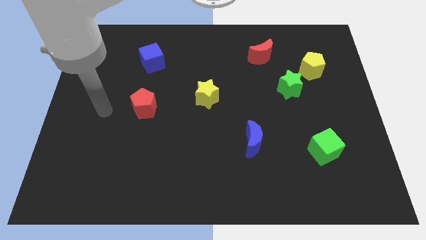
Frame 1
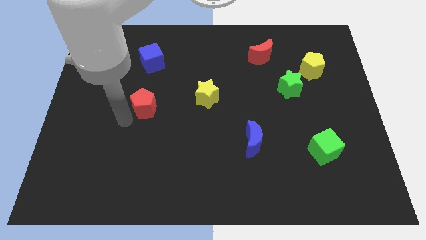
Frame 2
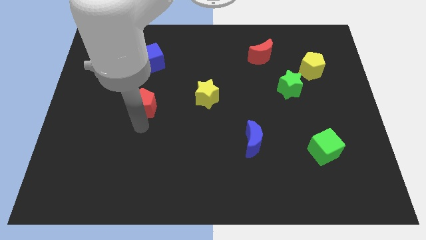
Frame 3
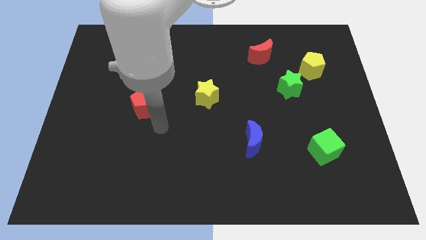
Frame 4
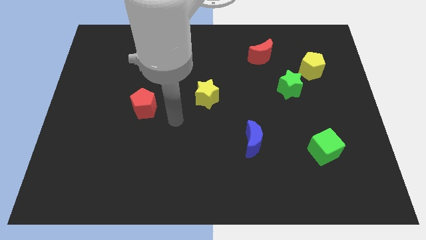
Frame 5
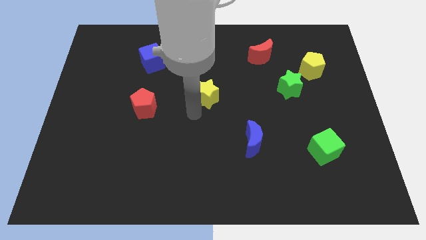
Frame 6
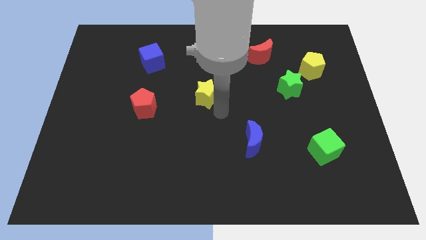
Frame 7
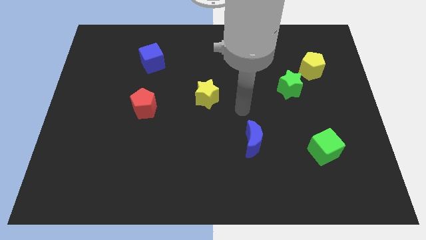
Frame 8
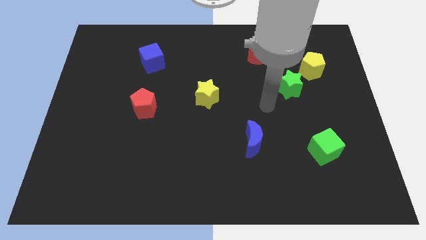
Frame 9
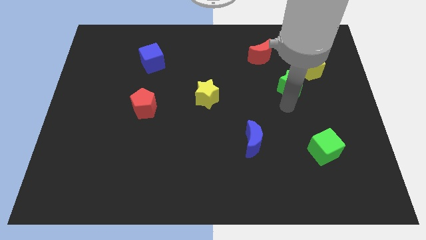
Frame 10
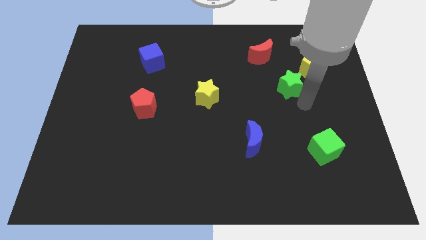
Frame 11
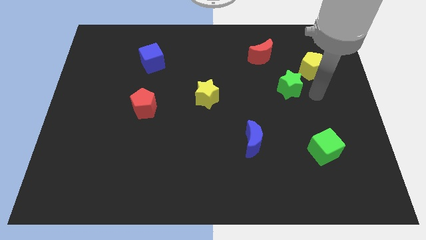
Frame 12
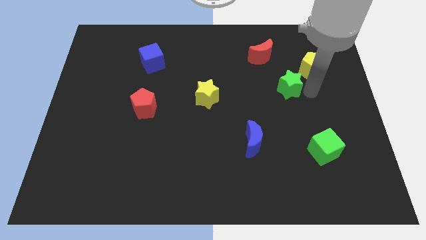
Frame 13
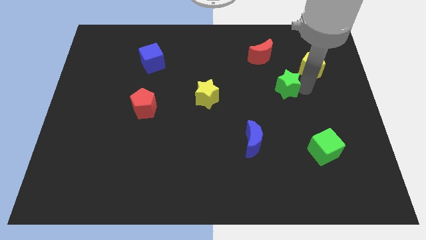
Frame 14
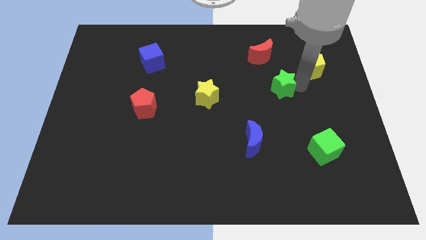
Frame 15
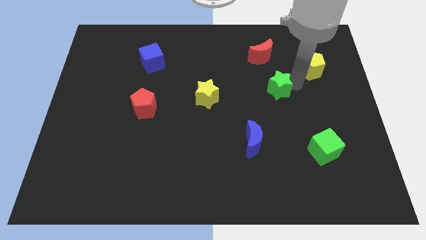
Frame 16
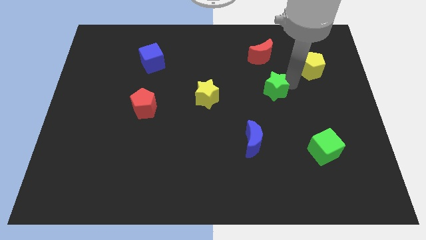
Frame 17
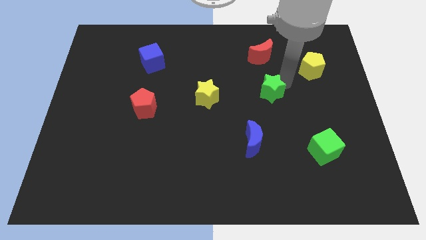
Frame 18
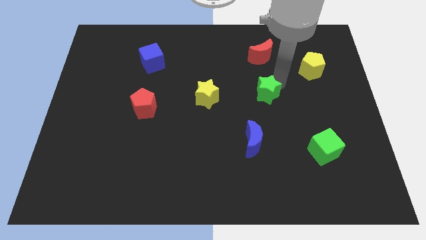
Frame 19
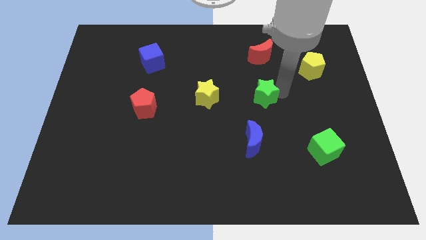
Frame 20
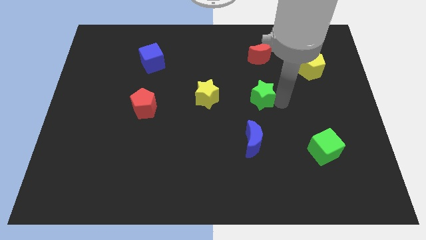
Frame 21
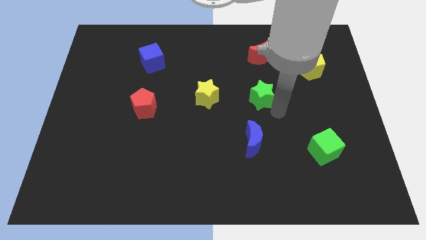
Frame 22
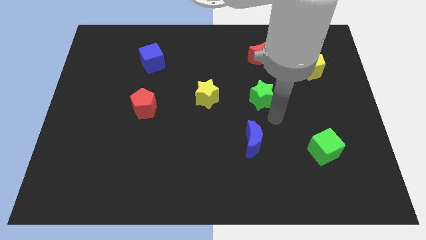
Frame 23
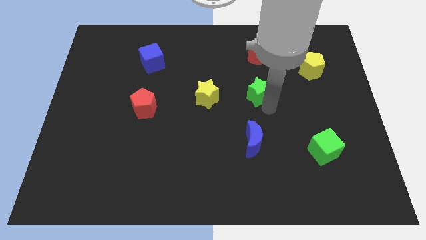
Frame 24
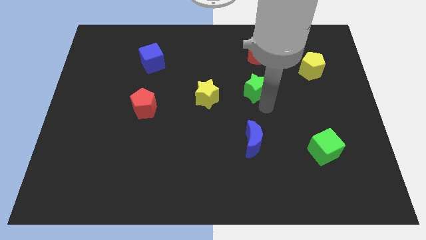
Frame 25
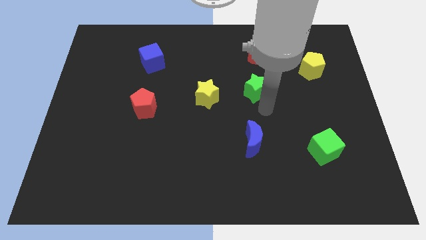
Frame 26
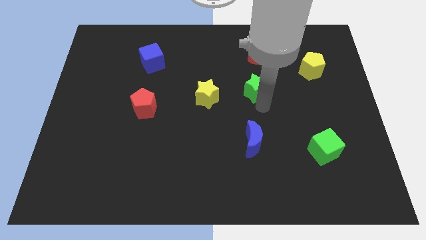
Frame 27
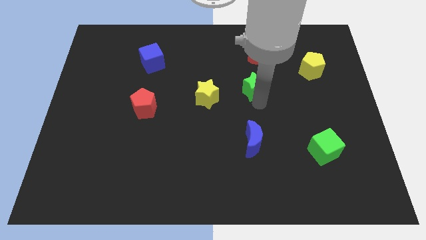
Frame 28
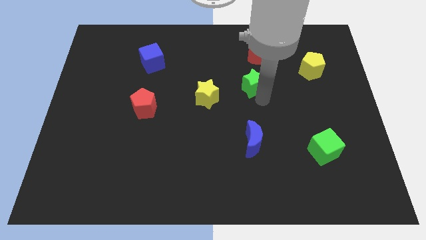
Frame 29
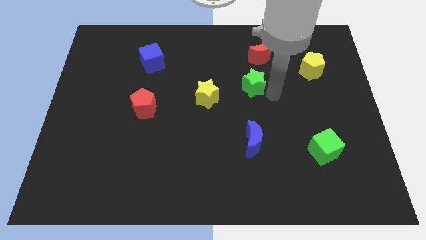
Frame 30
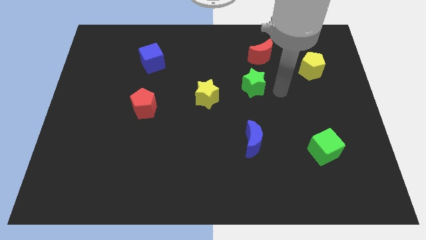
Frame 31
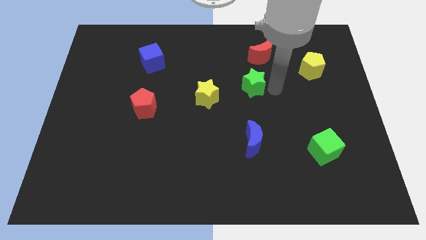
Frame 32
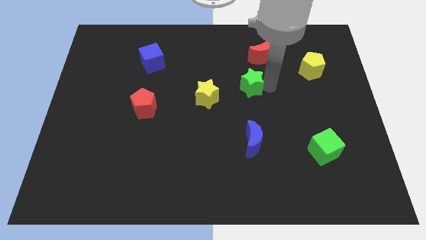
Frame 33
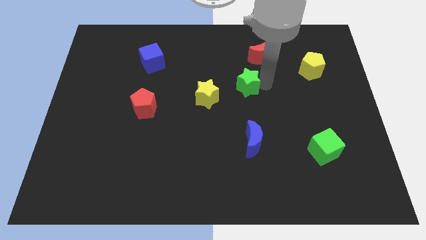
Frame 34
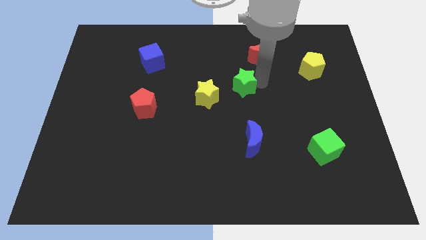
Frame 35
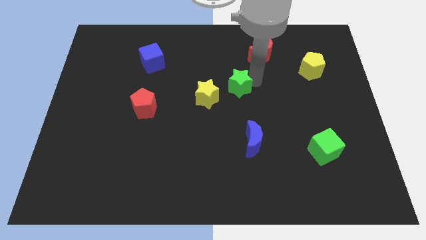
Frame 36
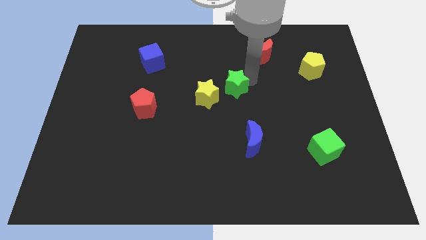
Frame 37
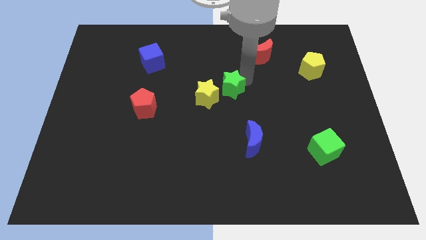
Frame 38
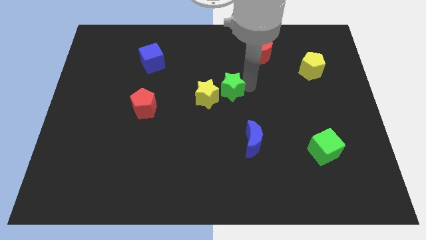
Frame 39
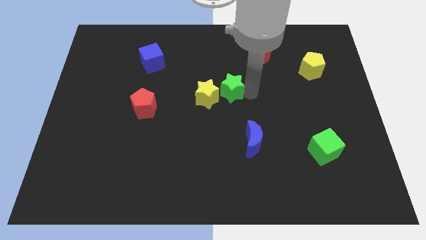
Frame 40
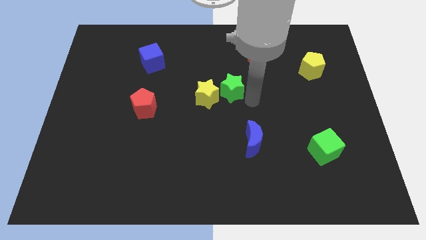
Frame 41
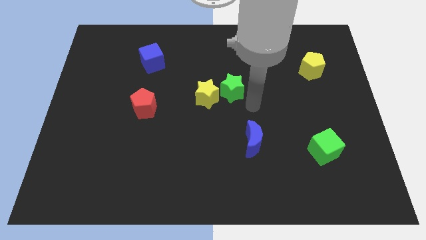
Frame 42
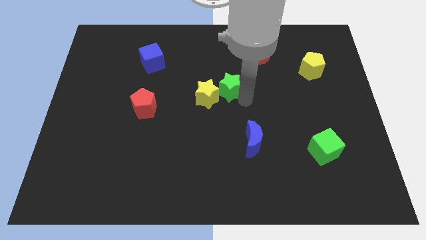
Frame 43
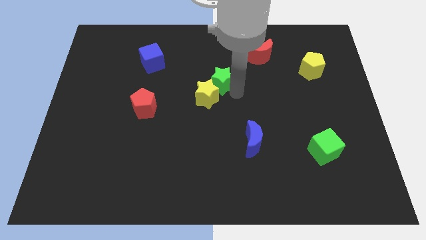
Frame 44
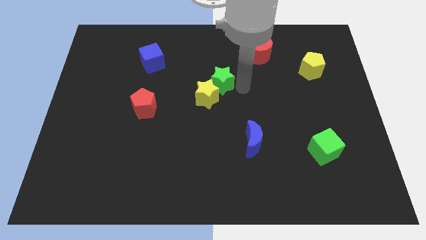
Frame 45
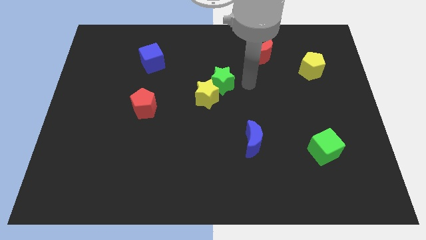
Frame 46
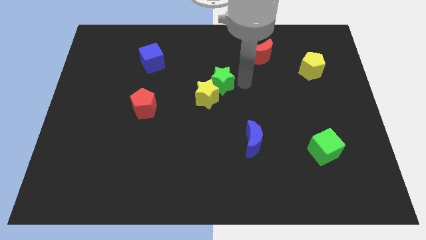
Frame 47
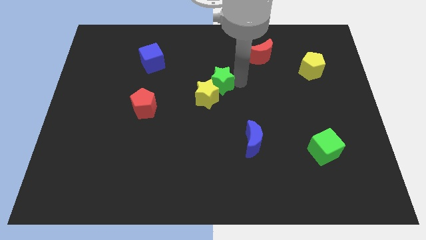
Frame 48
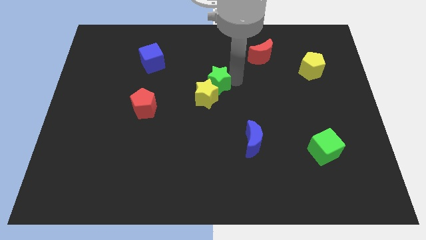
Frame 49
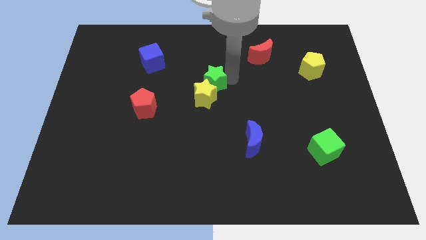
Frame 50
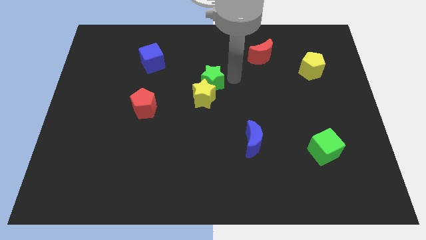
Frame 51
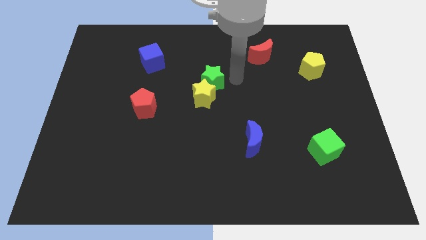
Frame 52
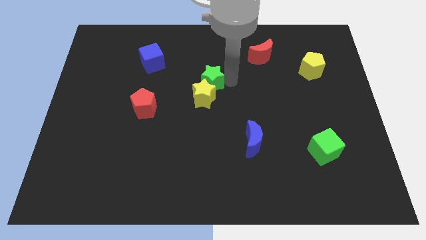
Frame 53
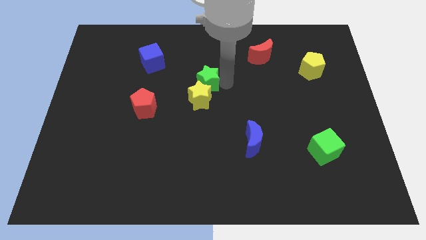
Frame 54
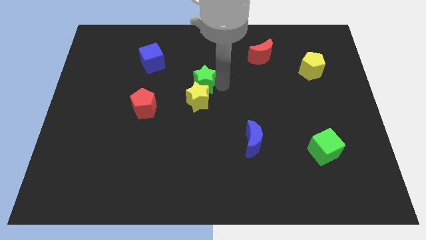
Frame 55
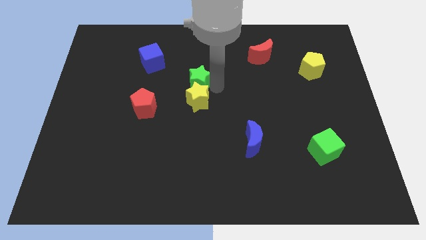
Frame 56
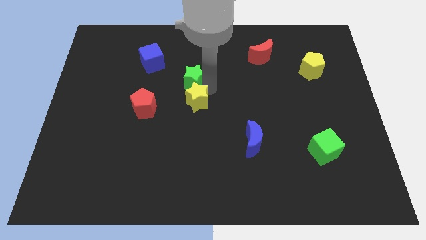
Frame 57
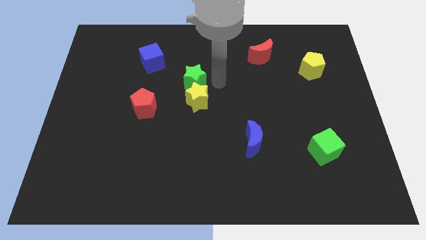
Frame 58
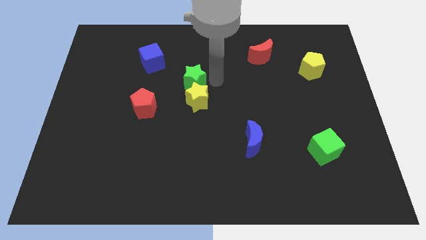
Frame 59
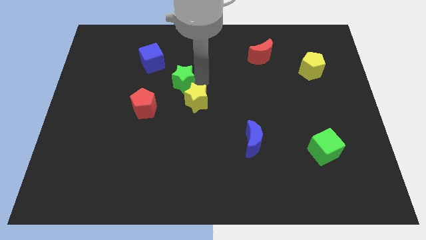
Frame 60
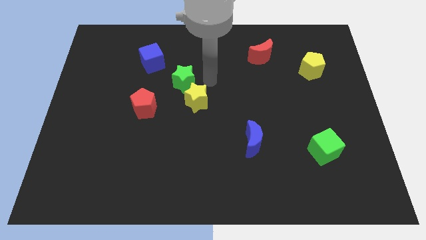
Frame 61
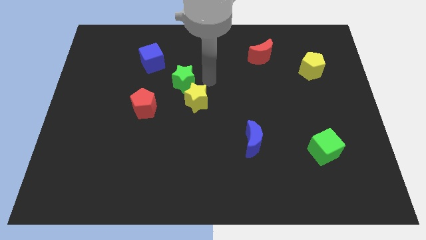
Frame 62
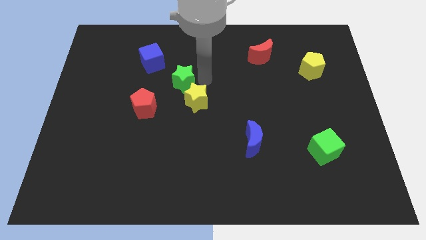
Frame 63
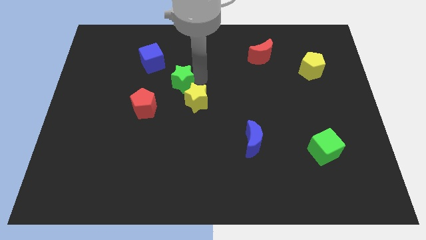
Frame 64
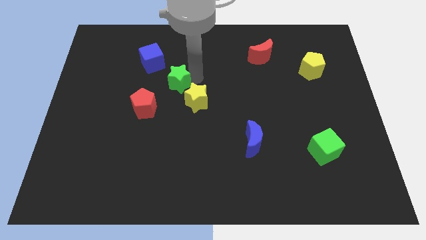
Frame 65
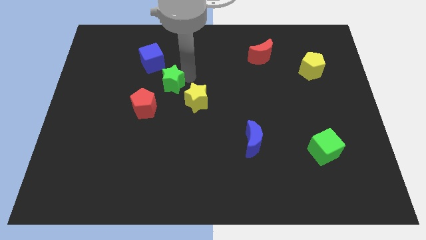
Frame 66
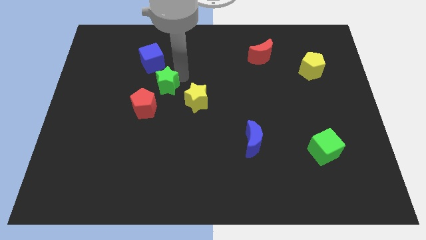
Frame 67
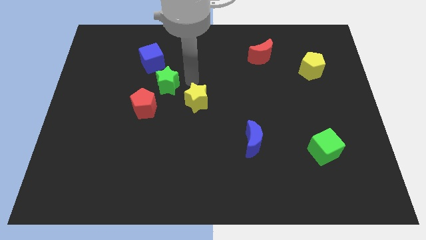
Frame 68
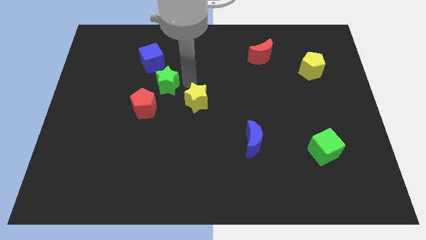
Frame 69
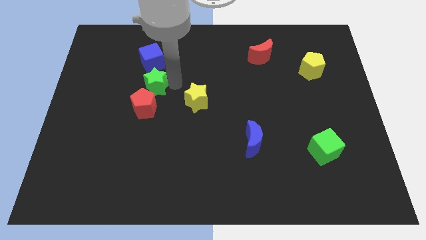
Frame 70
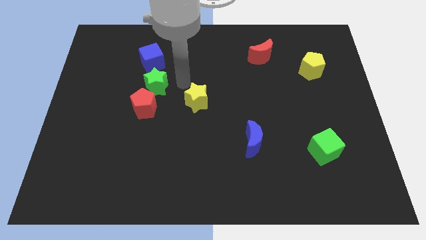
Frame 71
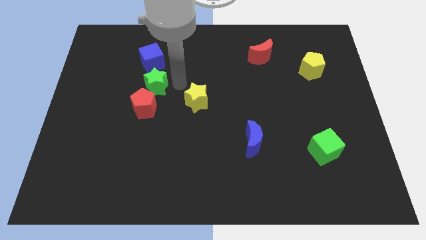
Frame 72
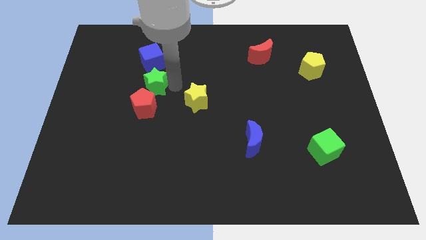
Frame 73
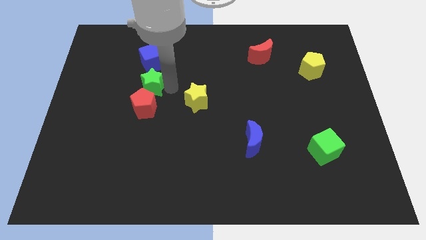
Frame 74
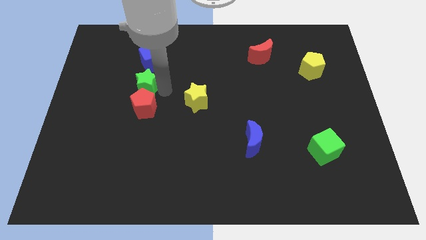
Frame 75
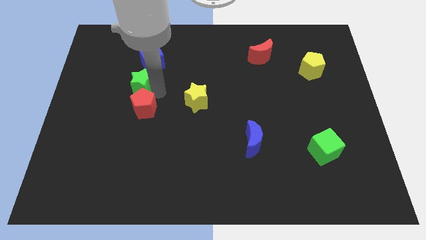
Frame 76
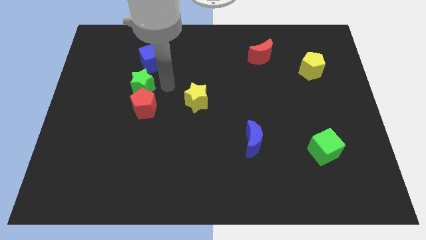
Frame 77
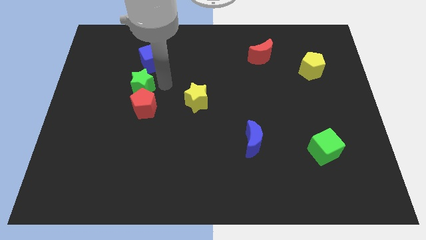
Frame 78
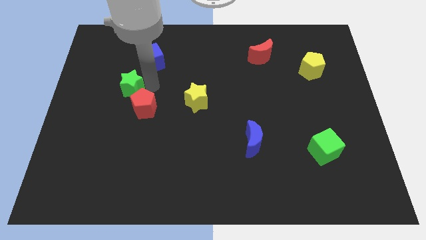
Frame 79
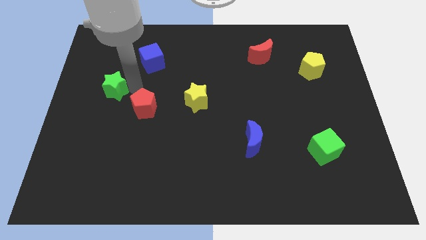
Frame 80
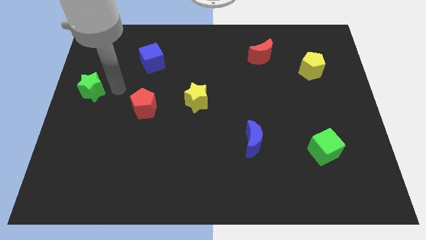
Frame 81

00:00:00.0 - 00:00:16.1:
put the green star to the center left
